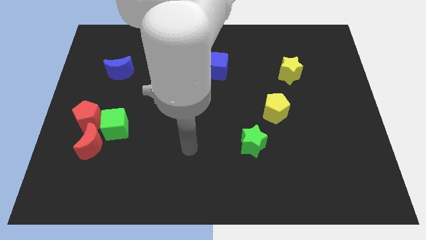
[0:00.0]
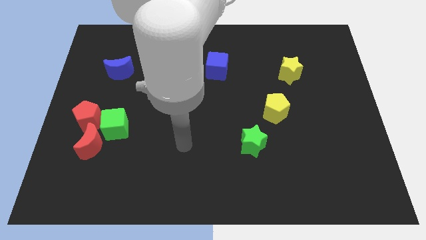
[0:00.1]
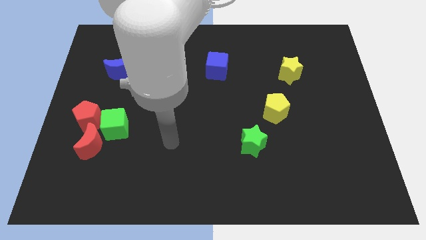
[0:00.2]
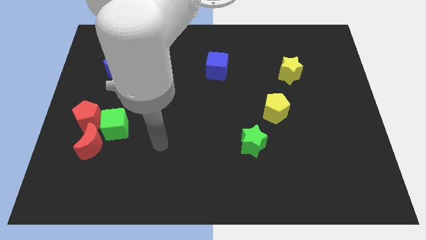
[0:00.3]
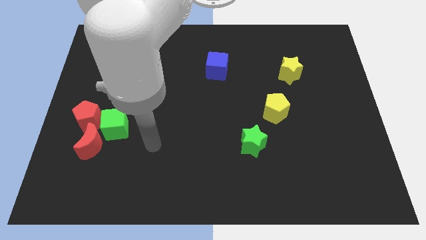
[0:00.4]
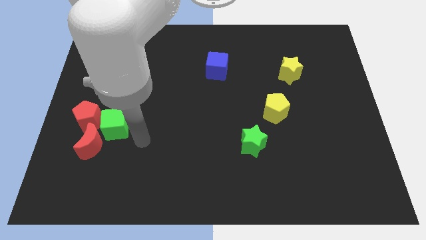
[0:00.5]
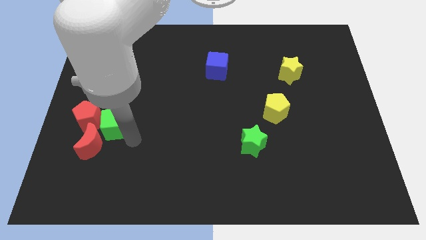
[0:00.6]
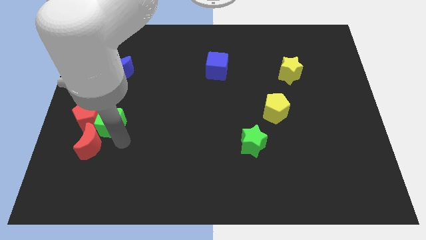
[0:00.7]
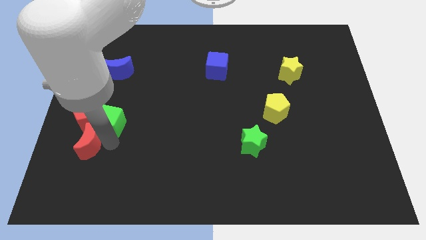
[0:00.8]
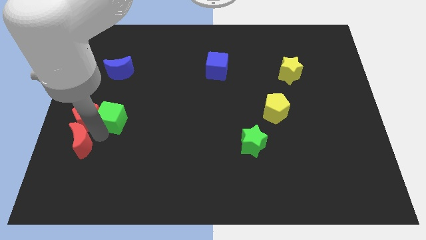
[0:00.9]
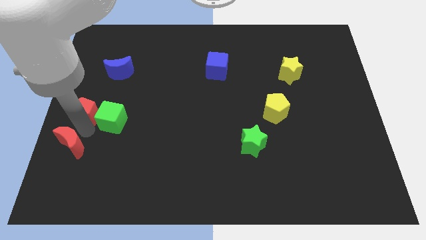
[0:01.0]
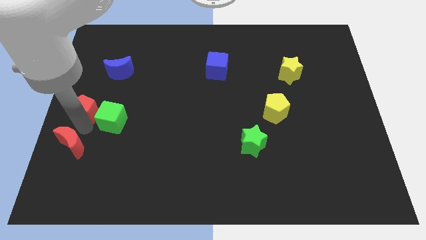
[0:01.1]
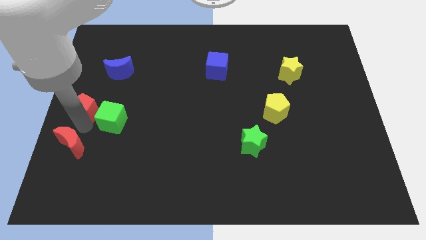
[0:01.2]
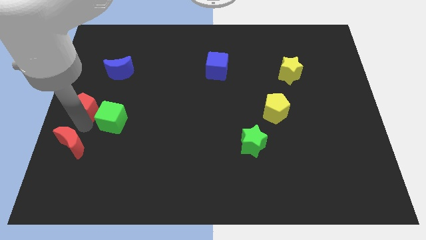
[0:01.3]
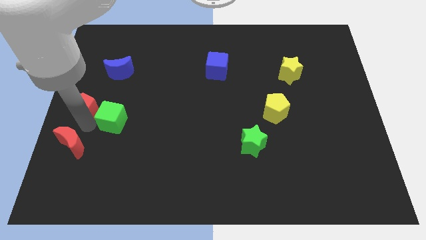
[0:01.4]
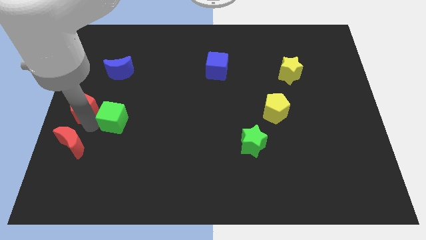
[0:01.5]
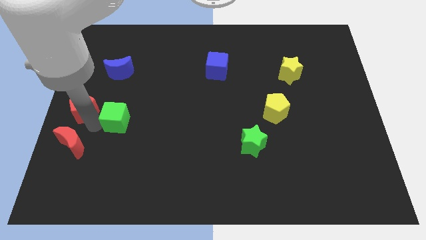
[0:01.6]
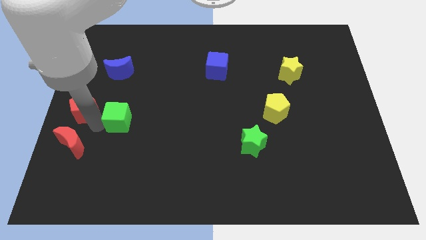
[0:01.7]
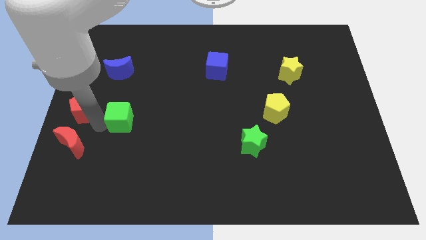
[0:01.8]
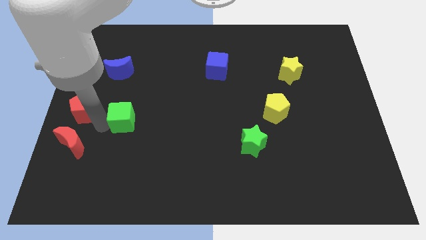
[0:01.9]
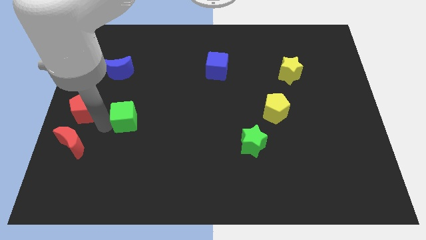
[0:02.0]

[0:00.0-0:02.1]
pull the green cube apart from the red moon and red pentagon

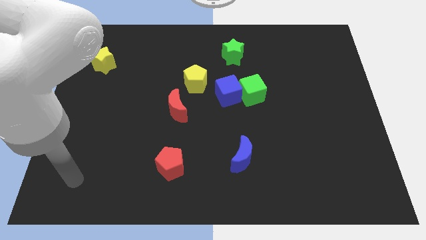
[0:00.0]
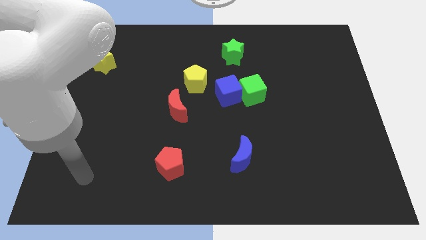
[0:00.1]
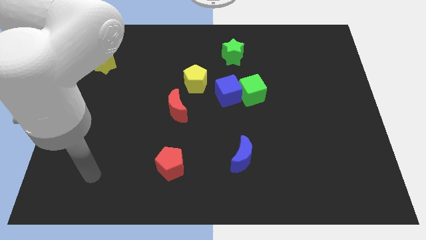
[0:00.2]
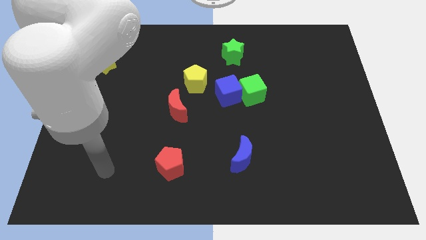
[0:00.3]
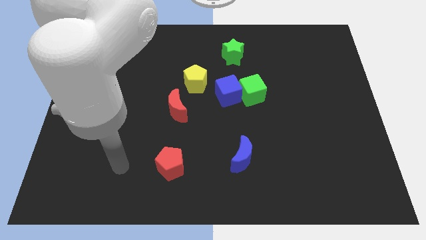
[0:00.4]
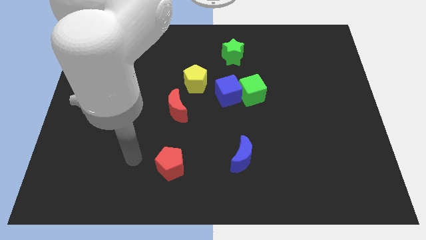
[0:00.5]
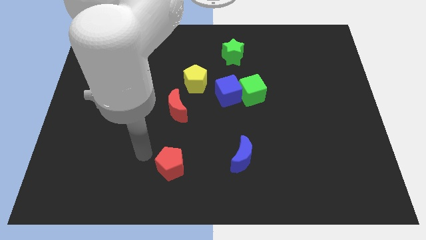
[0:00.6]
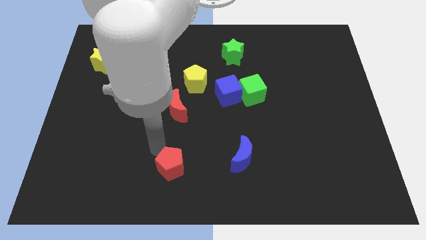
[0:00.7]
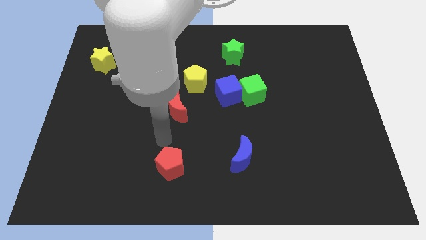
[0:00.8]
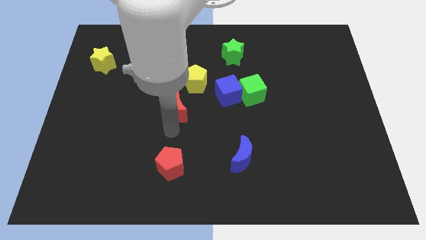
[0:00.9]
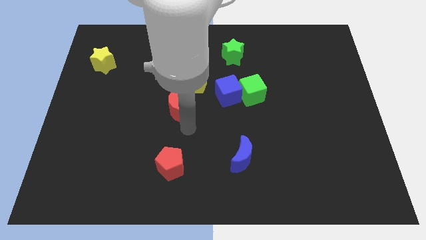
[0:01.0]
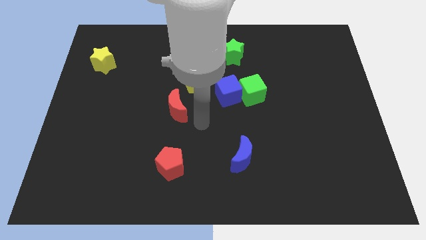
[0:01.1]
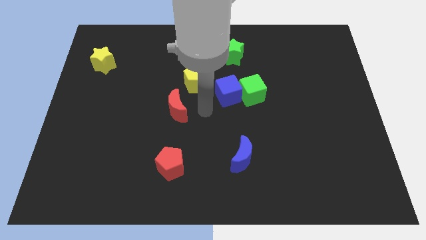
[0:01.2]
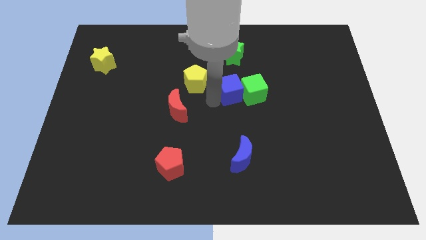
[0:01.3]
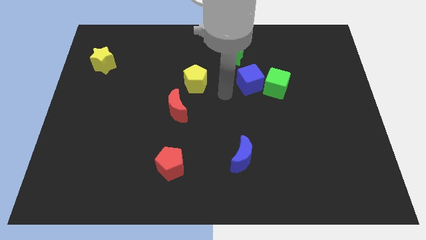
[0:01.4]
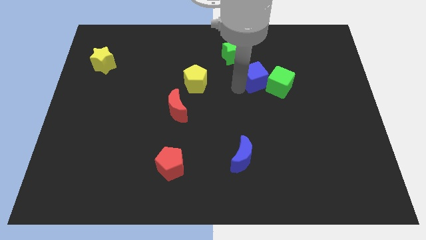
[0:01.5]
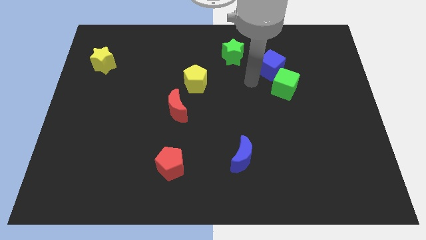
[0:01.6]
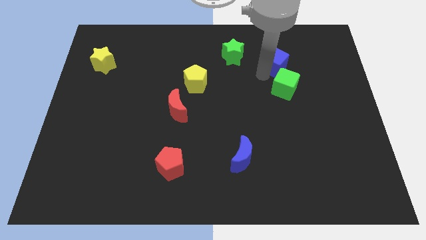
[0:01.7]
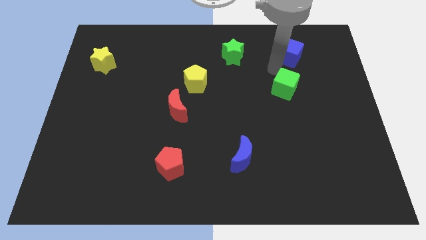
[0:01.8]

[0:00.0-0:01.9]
separate the green cube from the blue cube

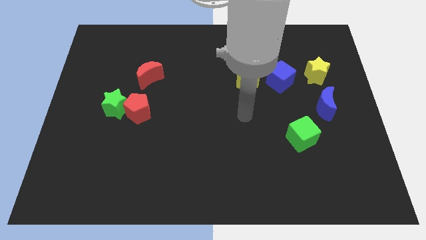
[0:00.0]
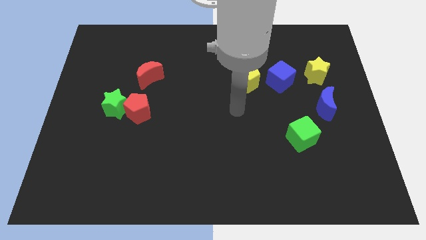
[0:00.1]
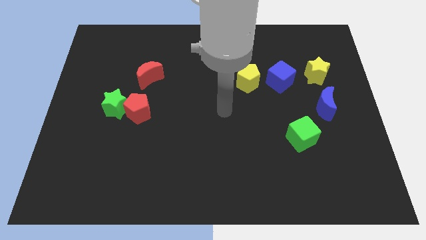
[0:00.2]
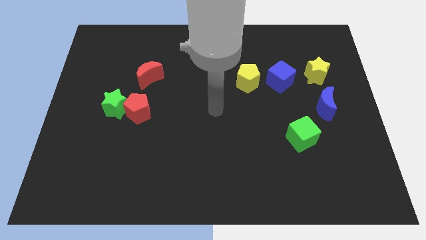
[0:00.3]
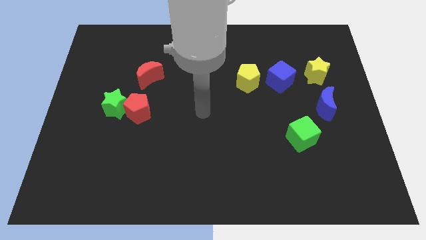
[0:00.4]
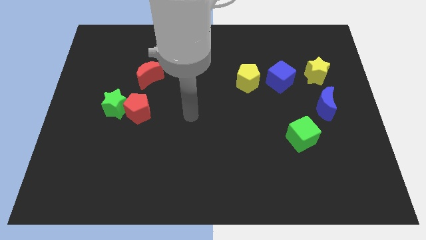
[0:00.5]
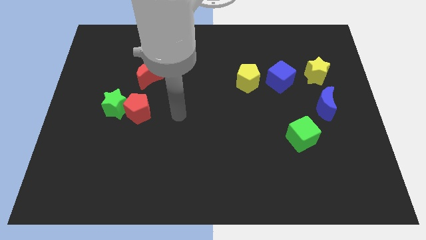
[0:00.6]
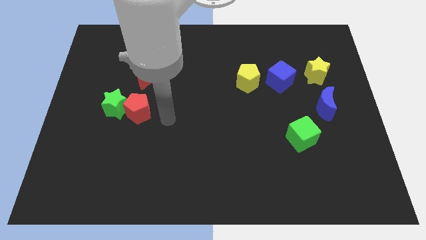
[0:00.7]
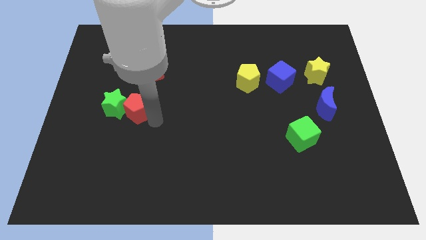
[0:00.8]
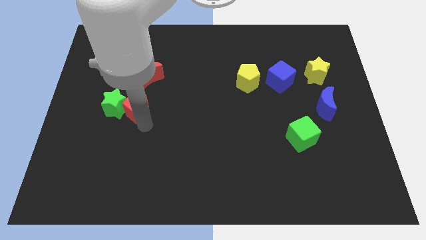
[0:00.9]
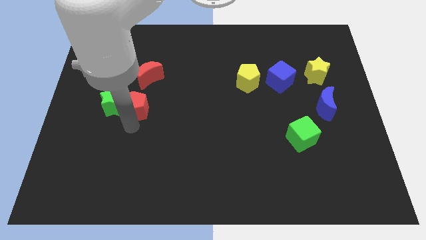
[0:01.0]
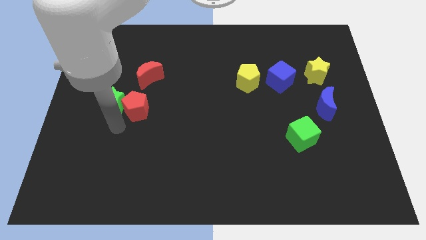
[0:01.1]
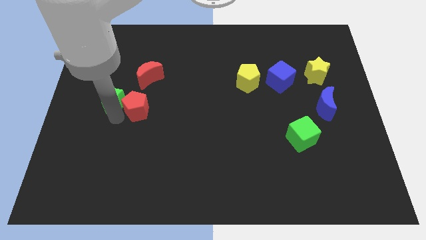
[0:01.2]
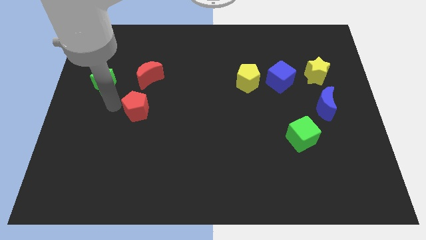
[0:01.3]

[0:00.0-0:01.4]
pull the red pentagon apart from the green star

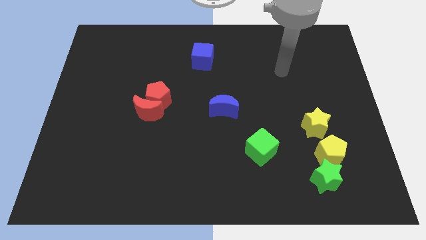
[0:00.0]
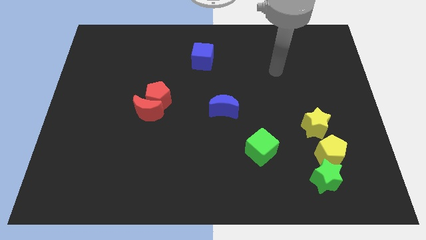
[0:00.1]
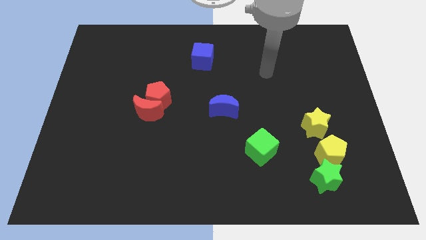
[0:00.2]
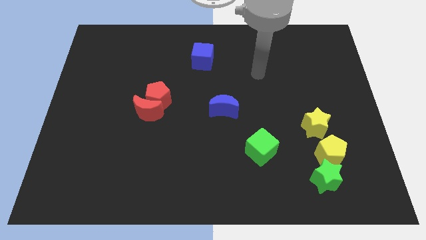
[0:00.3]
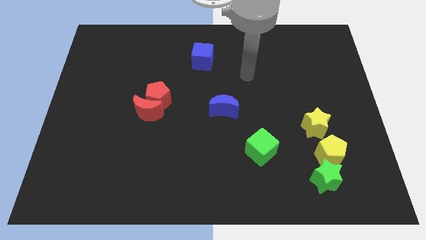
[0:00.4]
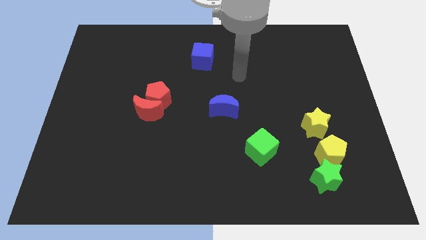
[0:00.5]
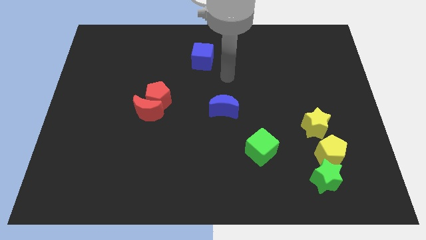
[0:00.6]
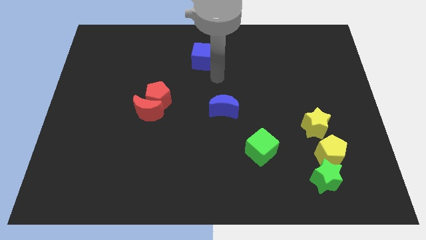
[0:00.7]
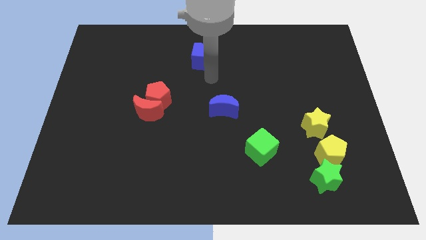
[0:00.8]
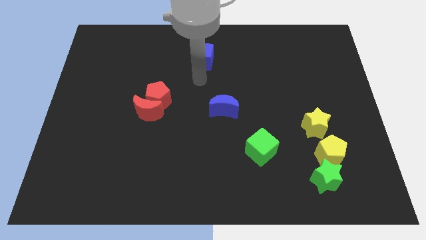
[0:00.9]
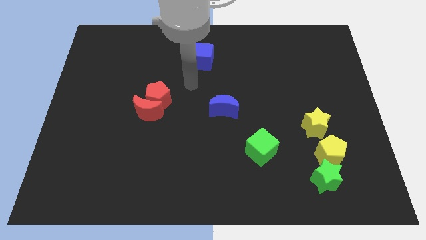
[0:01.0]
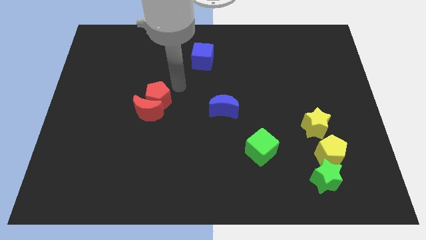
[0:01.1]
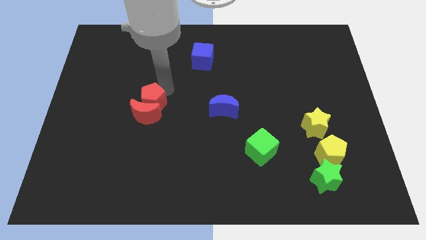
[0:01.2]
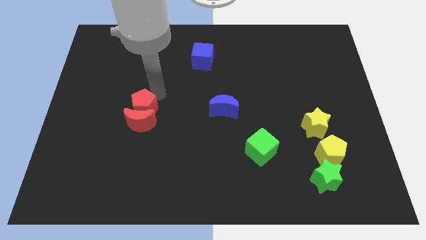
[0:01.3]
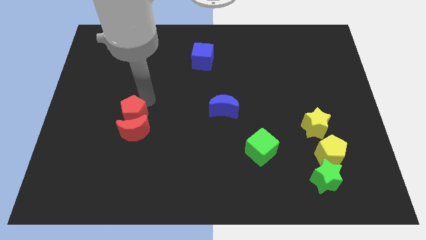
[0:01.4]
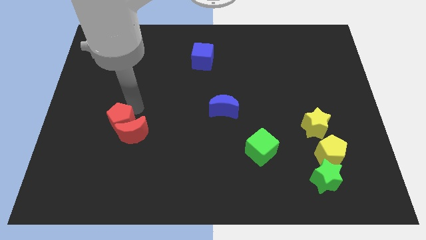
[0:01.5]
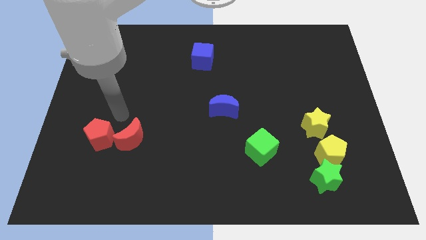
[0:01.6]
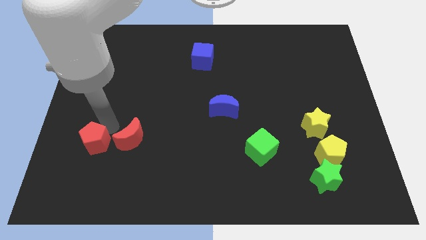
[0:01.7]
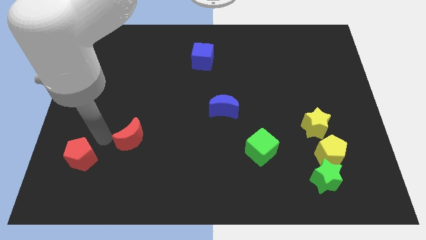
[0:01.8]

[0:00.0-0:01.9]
pull the red moon apart from the red pentagon

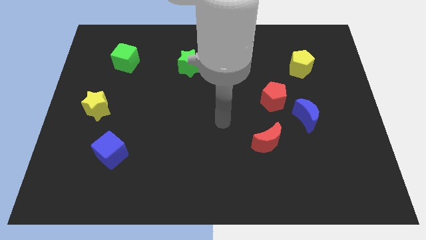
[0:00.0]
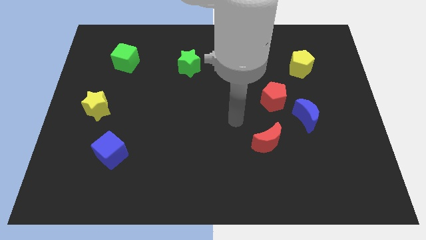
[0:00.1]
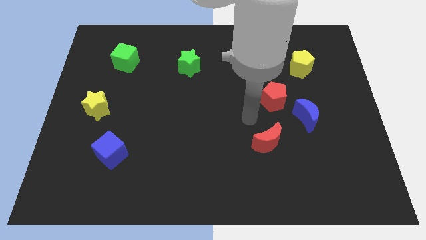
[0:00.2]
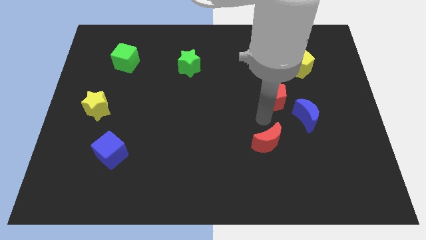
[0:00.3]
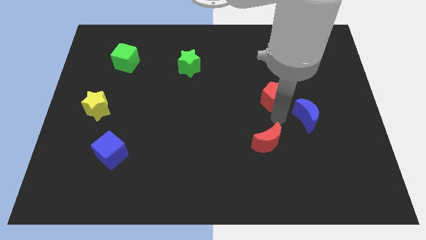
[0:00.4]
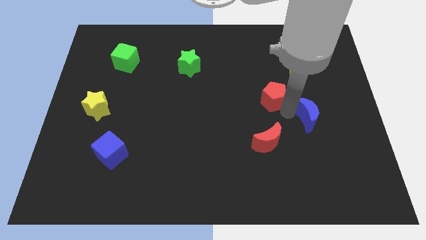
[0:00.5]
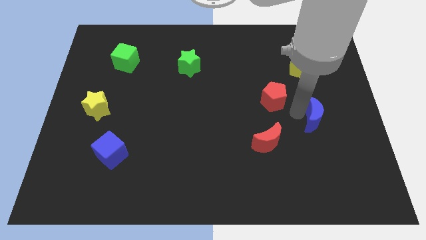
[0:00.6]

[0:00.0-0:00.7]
separate the red pentagon from the blue moon

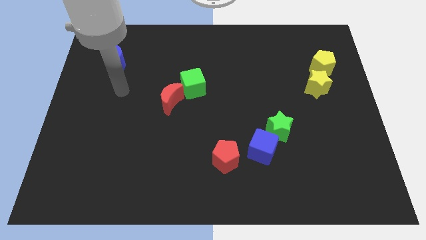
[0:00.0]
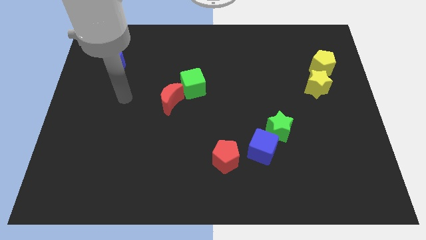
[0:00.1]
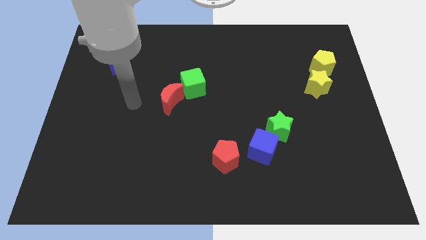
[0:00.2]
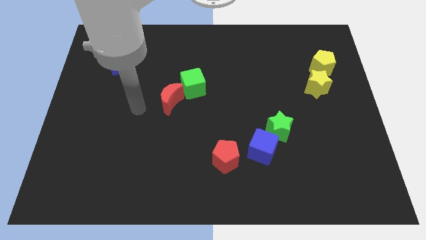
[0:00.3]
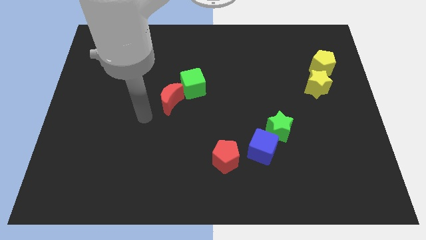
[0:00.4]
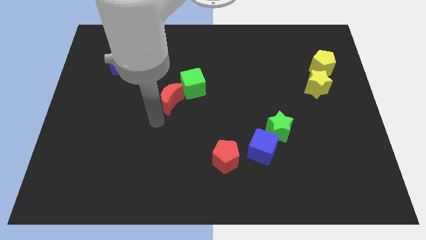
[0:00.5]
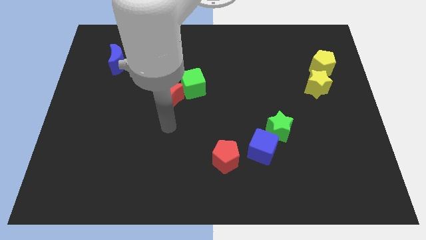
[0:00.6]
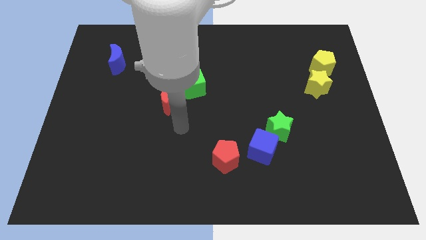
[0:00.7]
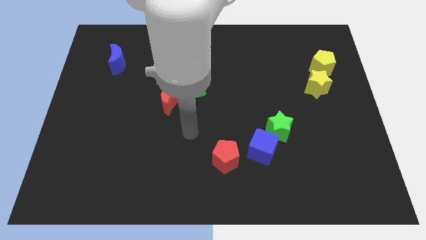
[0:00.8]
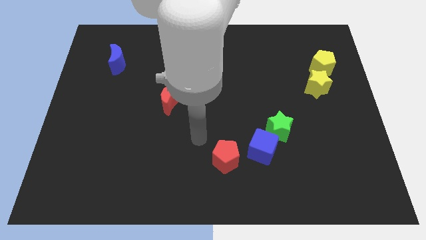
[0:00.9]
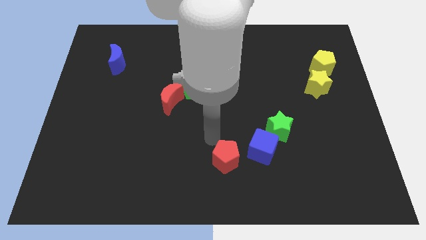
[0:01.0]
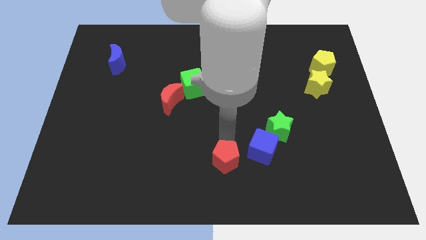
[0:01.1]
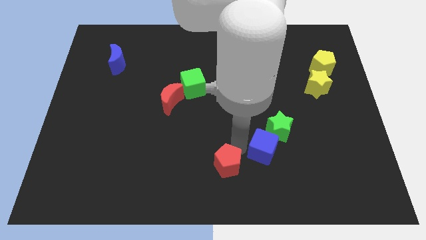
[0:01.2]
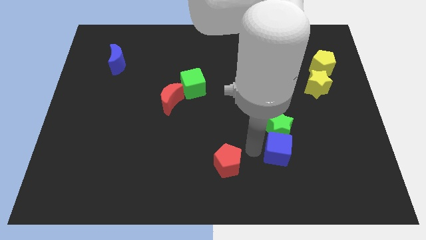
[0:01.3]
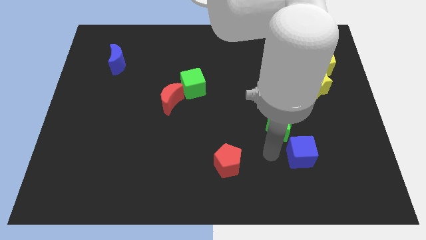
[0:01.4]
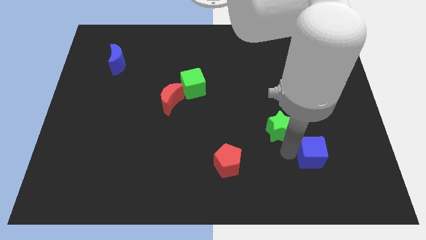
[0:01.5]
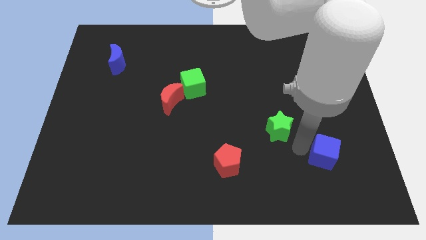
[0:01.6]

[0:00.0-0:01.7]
separate the green star from the blue cube
